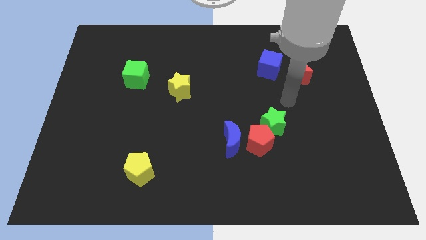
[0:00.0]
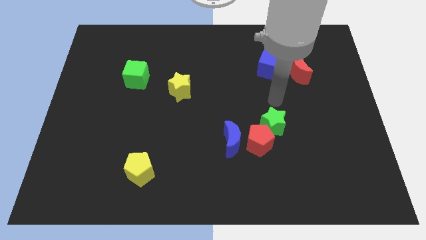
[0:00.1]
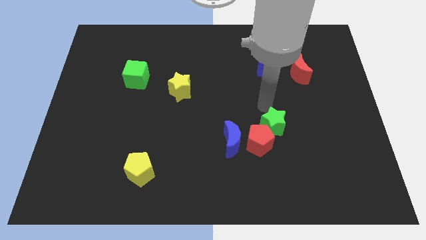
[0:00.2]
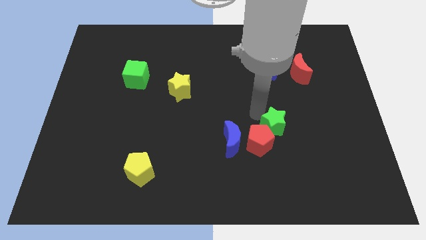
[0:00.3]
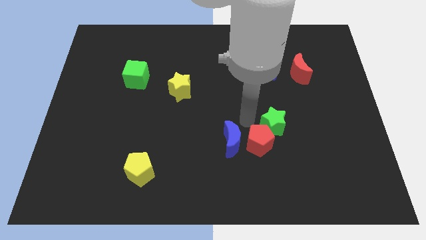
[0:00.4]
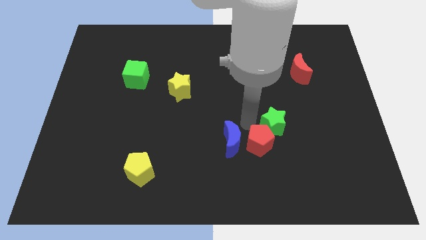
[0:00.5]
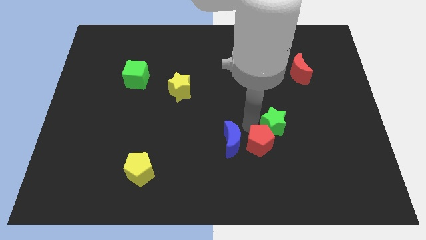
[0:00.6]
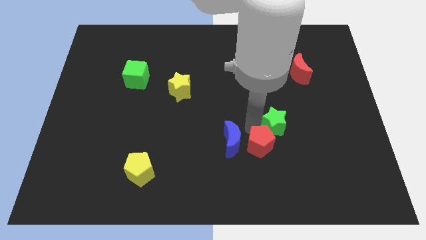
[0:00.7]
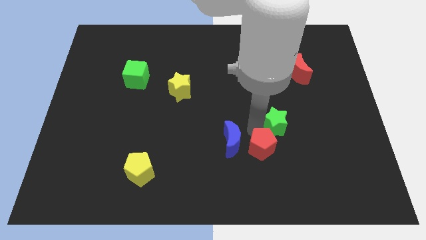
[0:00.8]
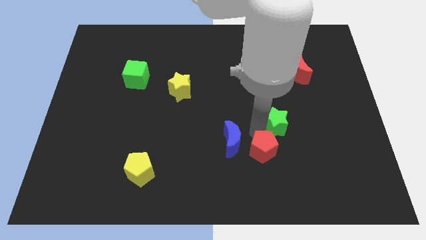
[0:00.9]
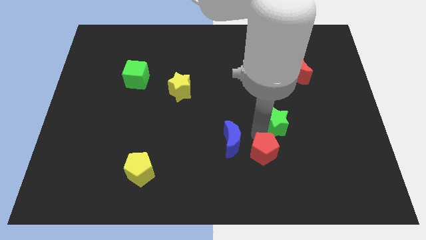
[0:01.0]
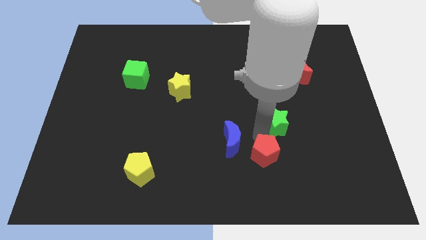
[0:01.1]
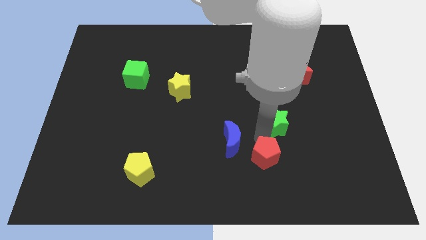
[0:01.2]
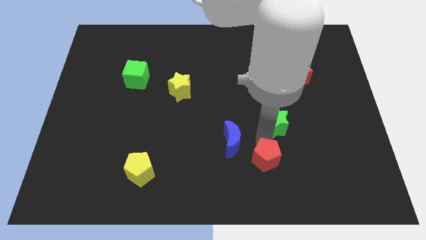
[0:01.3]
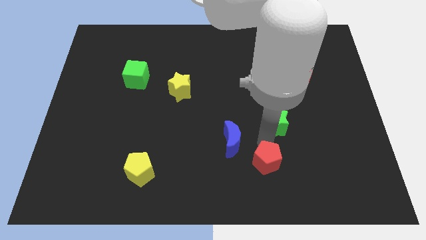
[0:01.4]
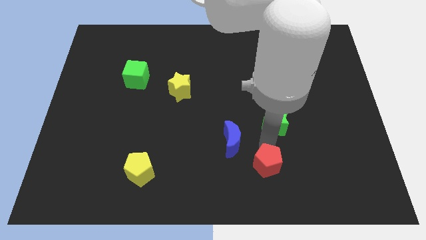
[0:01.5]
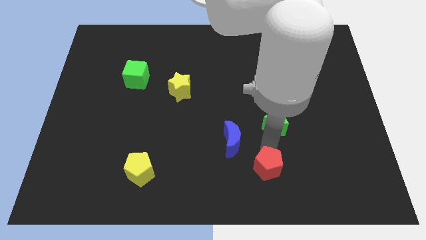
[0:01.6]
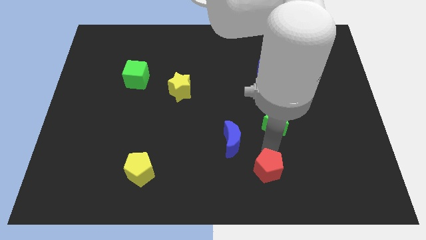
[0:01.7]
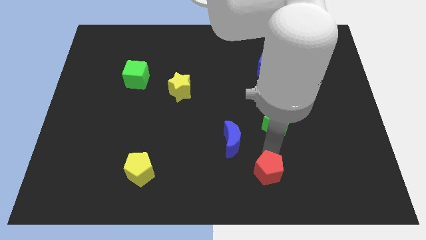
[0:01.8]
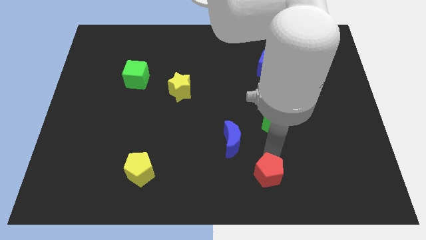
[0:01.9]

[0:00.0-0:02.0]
separate the red pentagon from the blue moon and green star

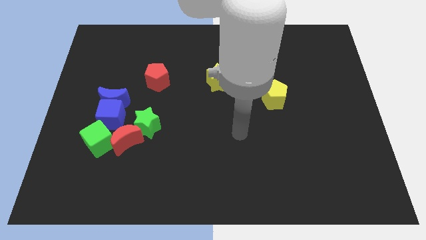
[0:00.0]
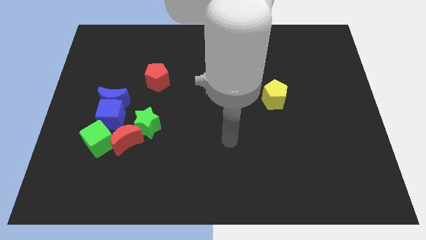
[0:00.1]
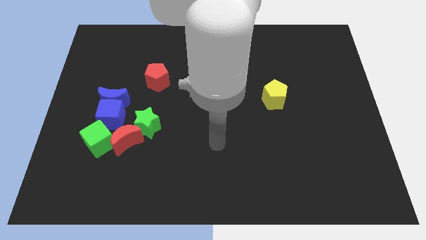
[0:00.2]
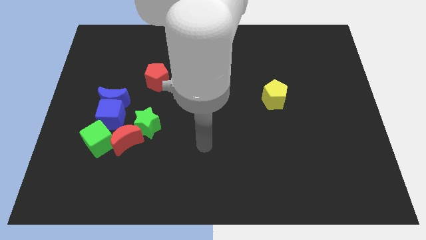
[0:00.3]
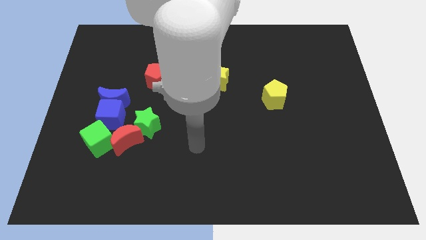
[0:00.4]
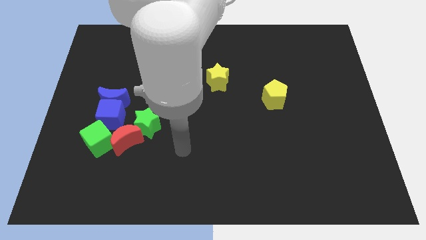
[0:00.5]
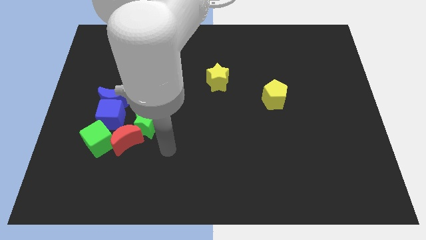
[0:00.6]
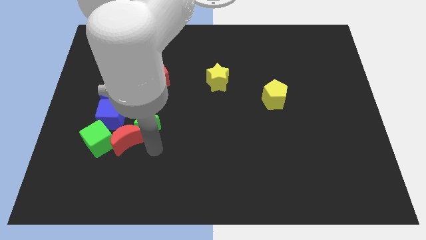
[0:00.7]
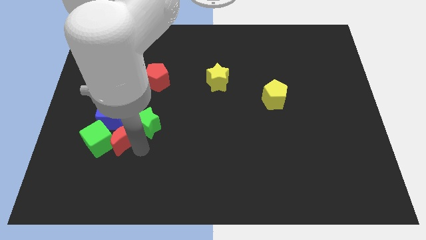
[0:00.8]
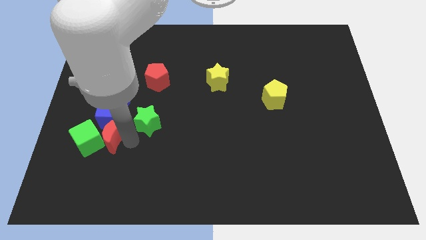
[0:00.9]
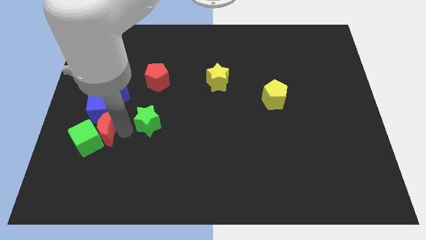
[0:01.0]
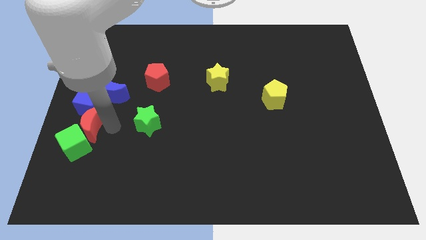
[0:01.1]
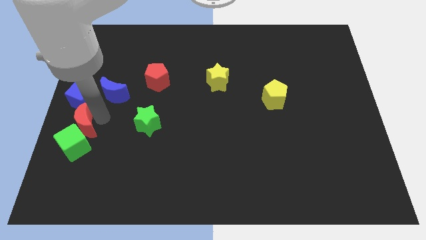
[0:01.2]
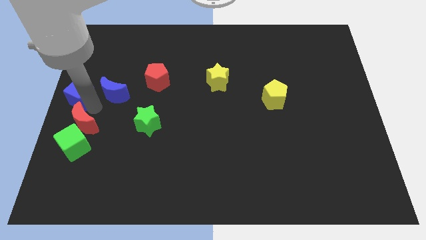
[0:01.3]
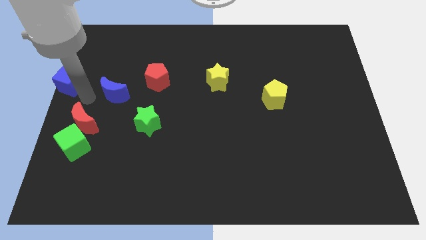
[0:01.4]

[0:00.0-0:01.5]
move the blue moon away from the blue cube

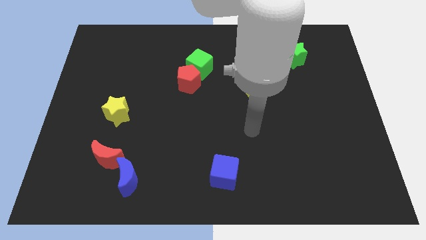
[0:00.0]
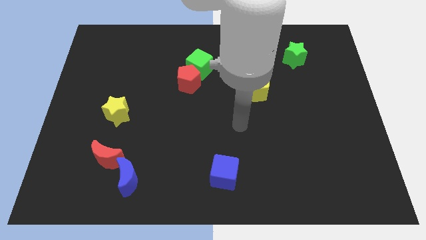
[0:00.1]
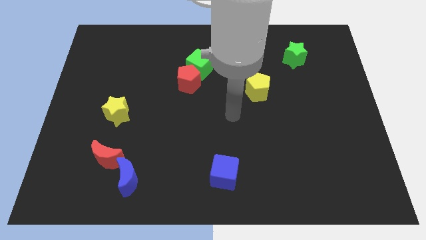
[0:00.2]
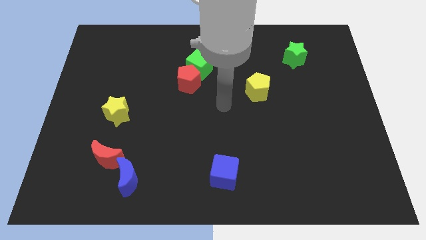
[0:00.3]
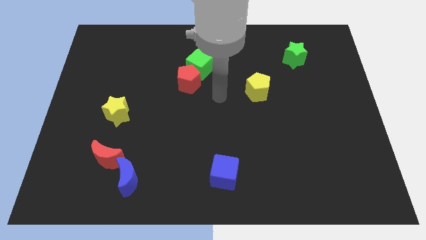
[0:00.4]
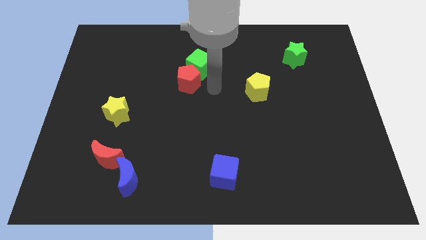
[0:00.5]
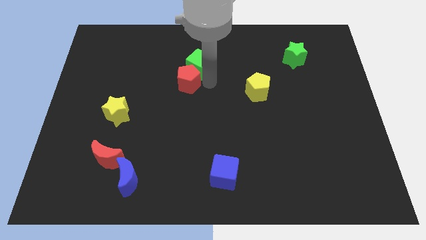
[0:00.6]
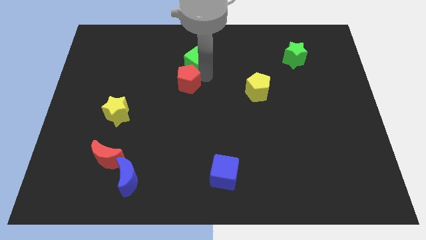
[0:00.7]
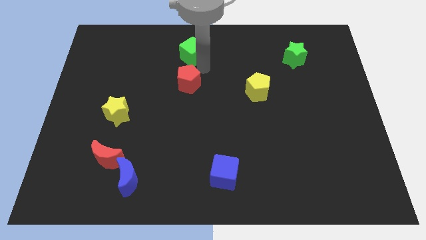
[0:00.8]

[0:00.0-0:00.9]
separate the red pentagon from the green cube

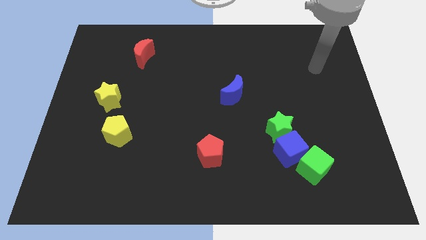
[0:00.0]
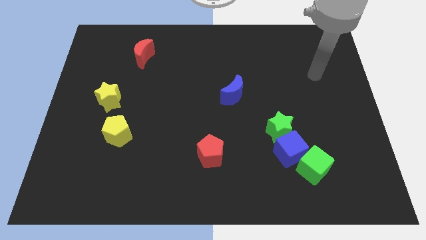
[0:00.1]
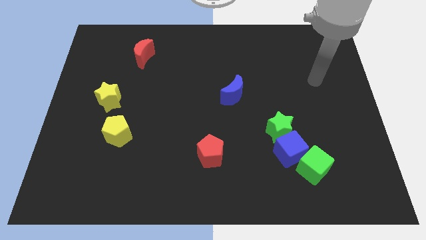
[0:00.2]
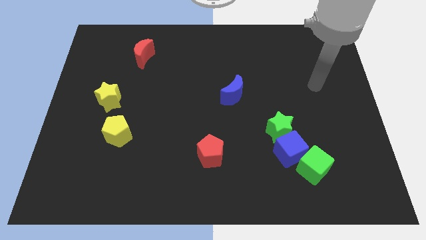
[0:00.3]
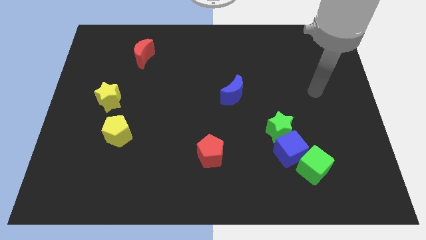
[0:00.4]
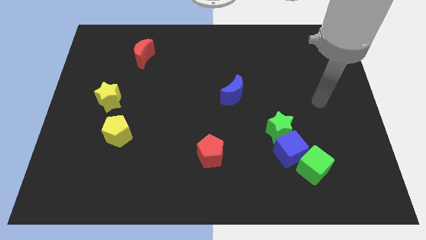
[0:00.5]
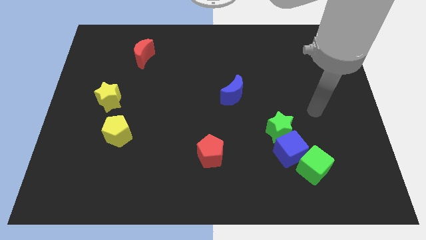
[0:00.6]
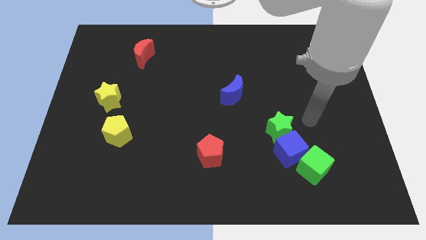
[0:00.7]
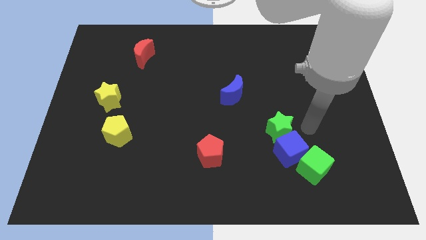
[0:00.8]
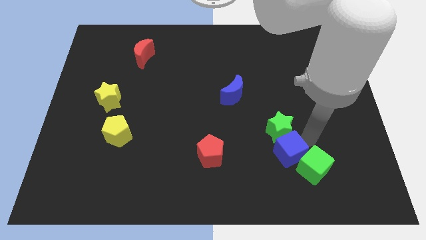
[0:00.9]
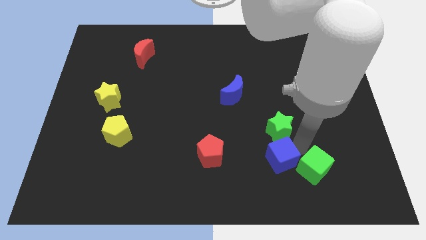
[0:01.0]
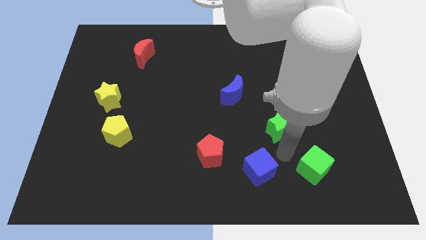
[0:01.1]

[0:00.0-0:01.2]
move the green star away from the blue cube

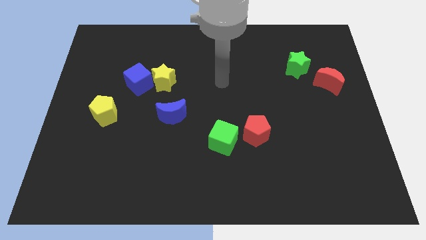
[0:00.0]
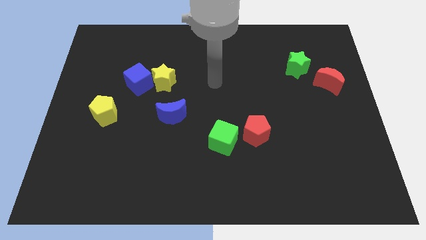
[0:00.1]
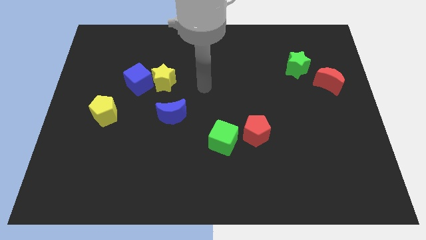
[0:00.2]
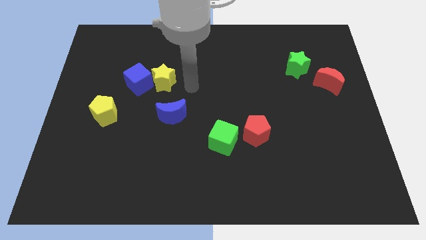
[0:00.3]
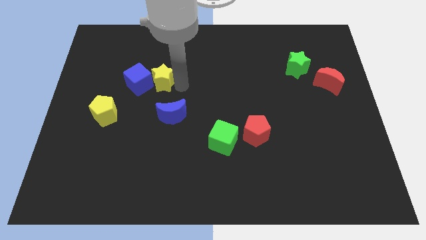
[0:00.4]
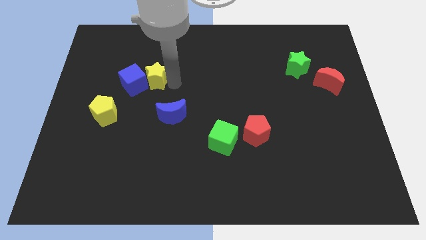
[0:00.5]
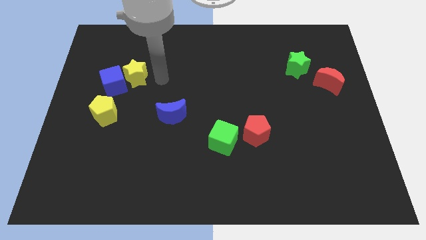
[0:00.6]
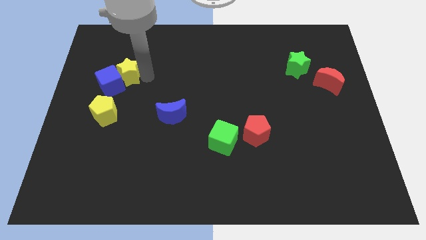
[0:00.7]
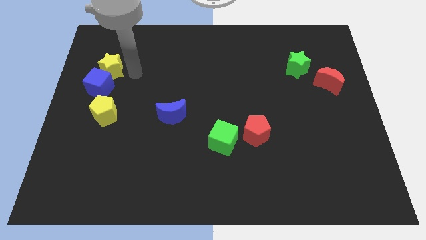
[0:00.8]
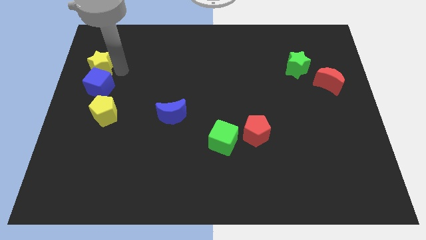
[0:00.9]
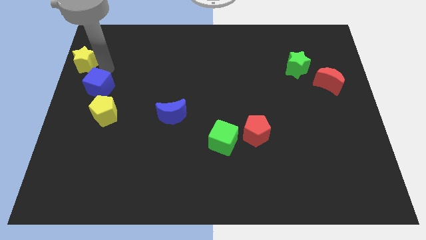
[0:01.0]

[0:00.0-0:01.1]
separate the blue cube from the yellow star

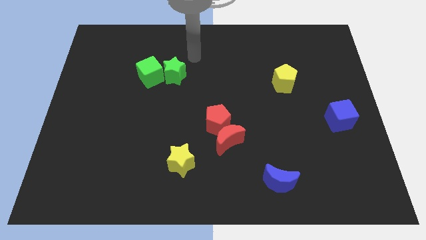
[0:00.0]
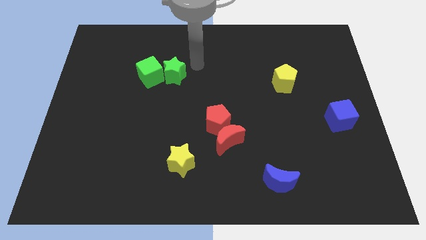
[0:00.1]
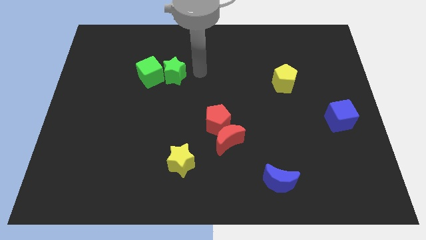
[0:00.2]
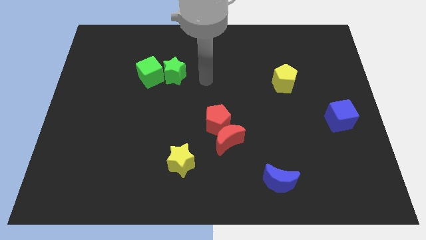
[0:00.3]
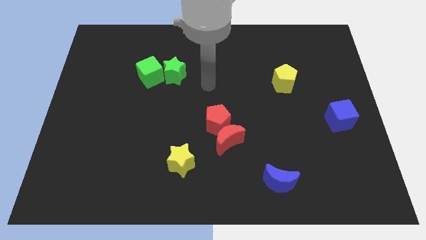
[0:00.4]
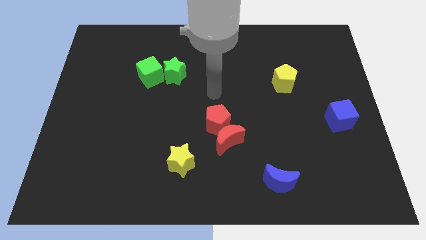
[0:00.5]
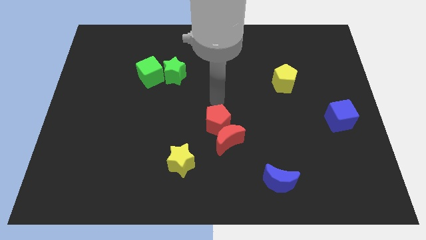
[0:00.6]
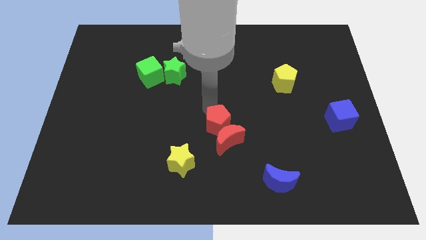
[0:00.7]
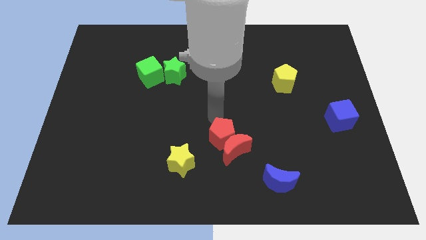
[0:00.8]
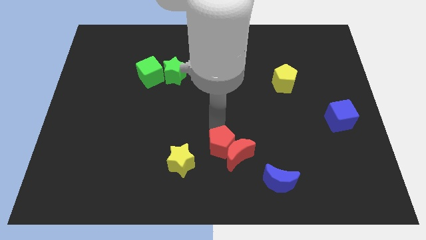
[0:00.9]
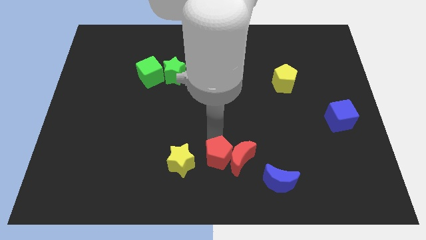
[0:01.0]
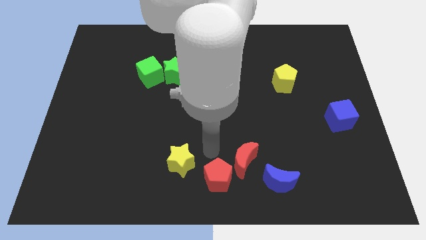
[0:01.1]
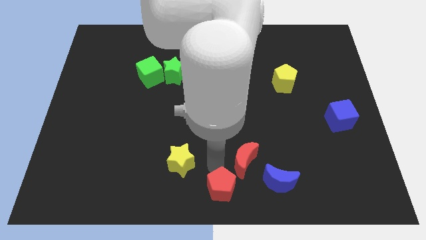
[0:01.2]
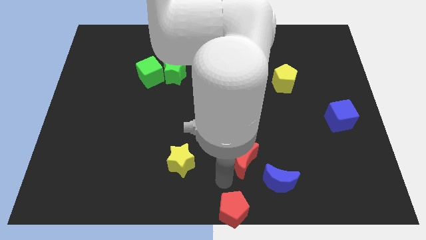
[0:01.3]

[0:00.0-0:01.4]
separate the red moon from the red pentagon

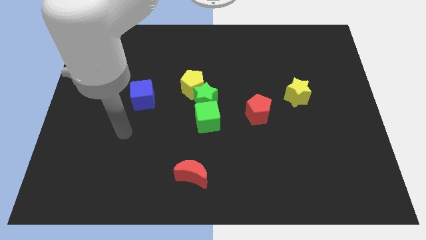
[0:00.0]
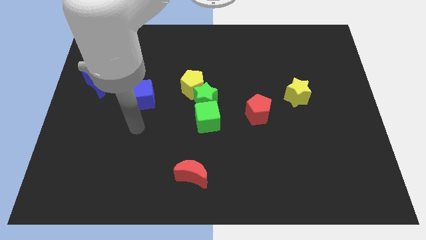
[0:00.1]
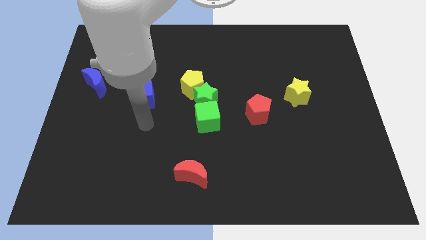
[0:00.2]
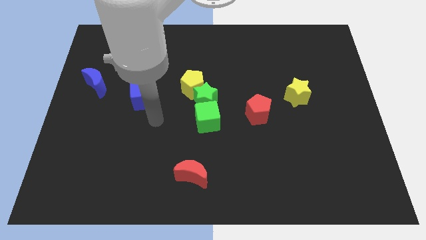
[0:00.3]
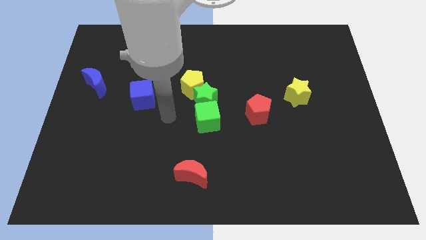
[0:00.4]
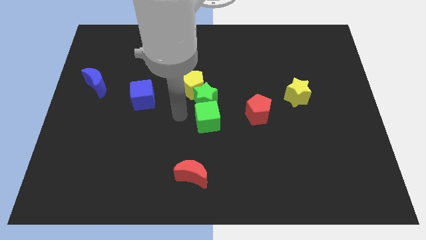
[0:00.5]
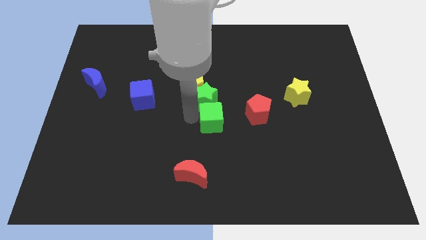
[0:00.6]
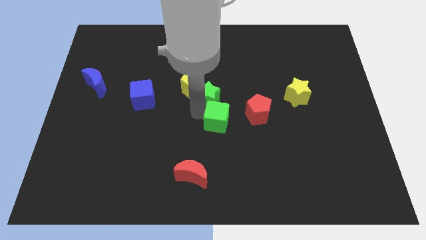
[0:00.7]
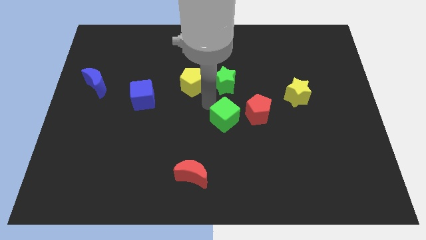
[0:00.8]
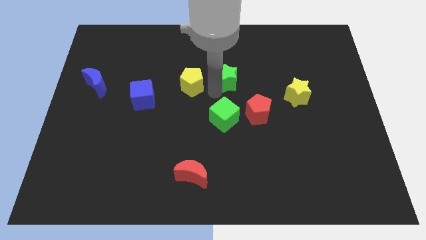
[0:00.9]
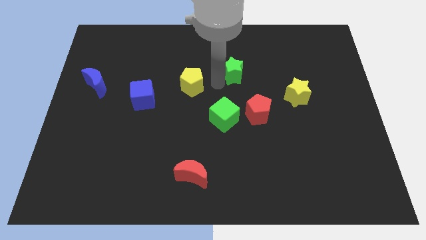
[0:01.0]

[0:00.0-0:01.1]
move the yellow pentagon away from the green star

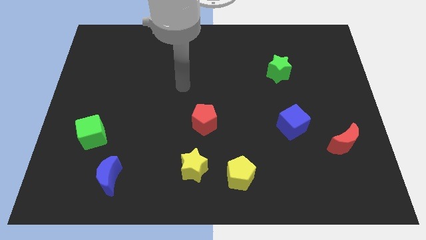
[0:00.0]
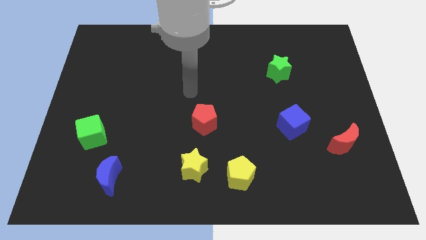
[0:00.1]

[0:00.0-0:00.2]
pull the yellow star apart from the yellow pentagon
